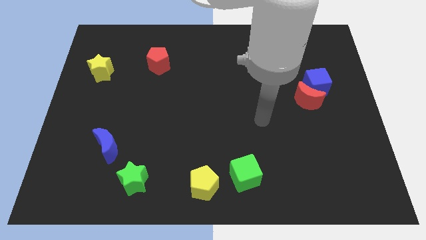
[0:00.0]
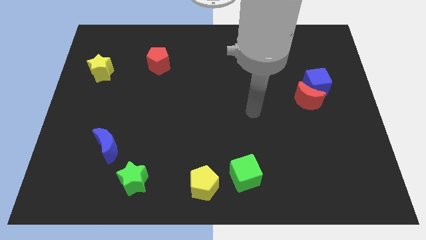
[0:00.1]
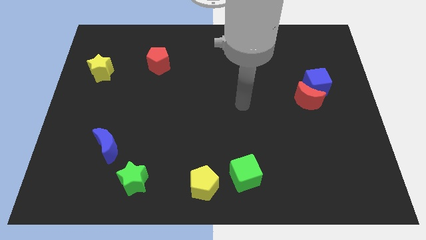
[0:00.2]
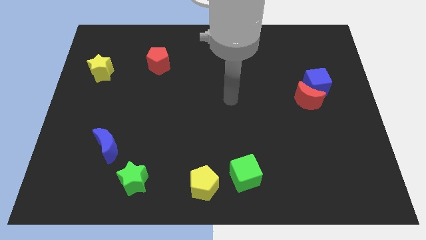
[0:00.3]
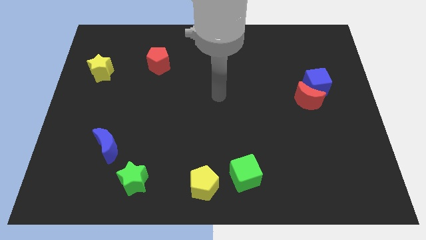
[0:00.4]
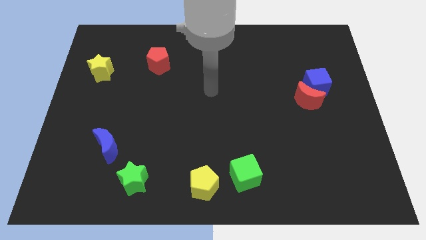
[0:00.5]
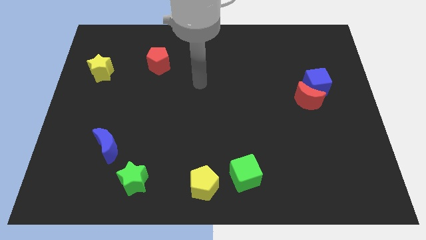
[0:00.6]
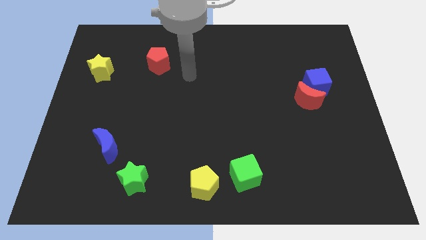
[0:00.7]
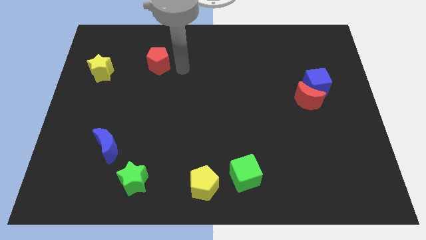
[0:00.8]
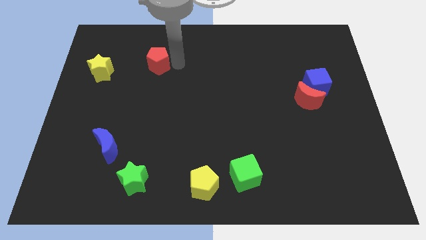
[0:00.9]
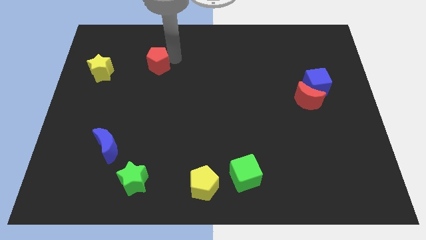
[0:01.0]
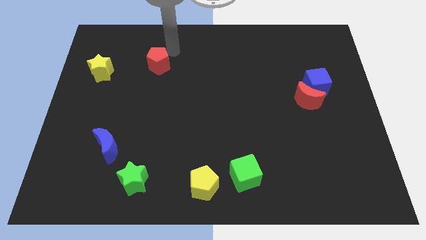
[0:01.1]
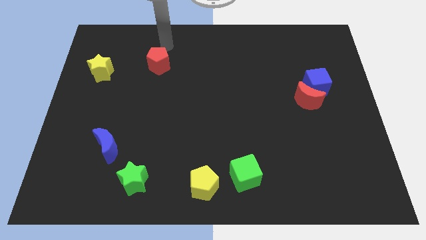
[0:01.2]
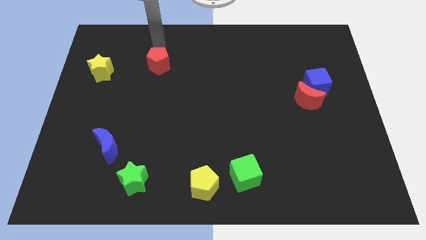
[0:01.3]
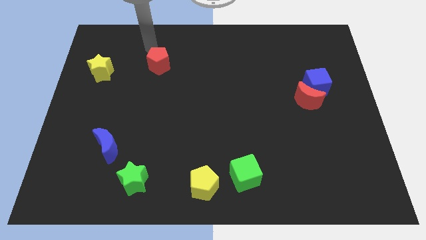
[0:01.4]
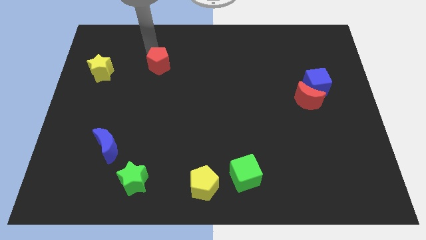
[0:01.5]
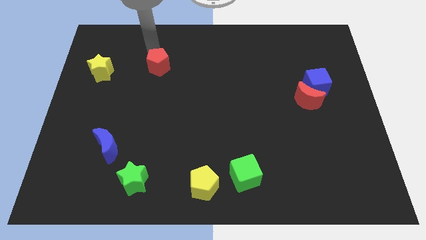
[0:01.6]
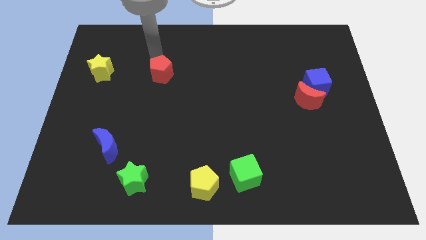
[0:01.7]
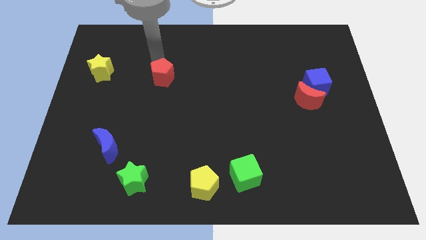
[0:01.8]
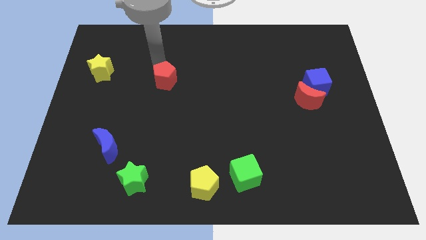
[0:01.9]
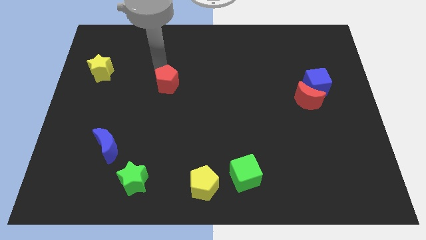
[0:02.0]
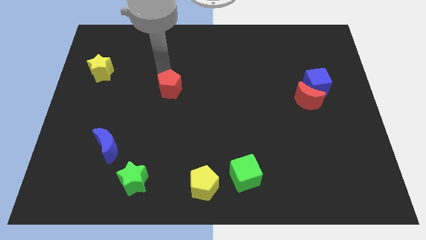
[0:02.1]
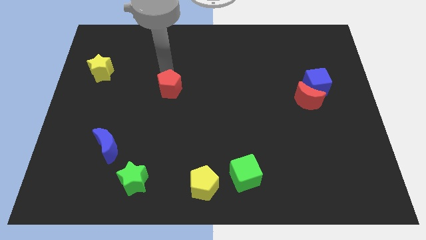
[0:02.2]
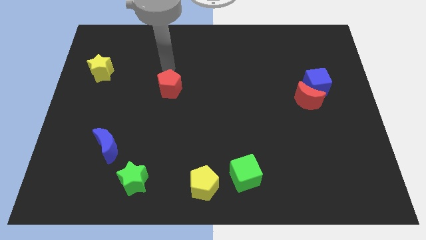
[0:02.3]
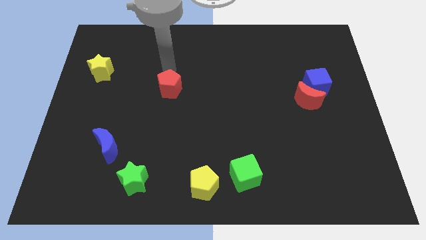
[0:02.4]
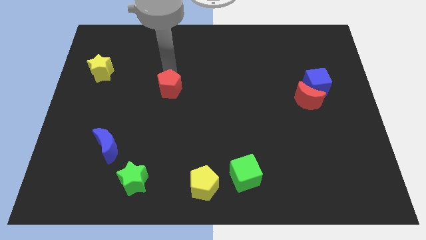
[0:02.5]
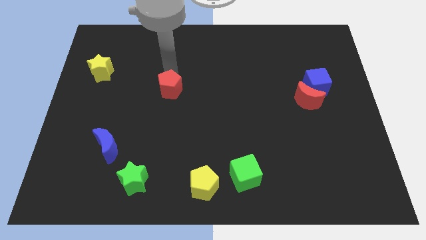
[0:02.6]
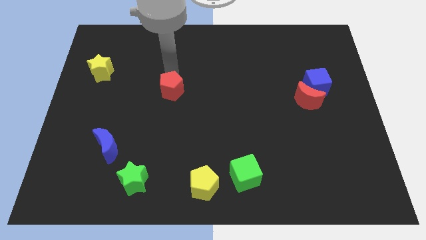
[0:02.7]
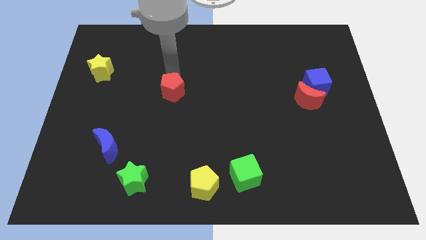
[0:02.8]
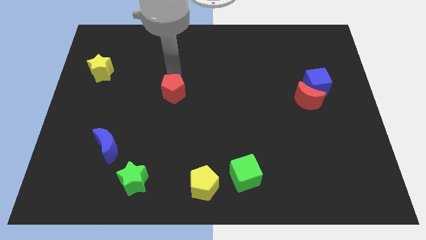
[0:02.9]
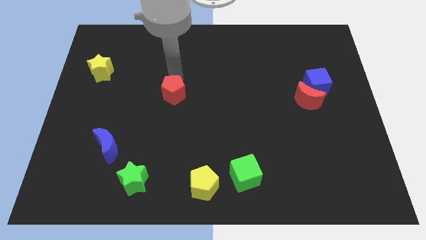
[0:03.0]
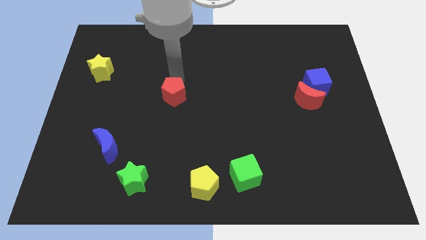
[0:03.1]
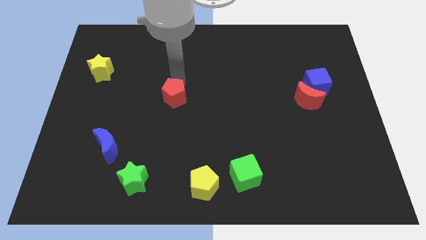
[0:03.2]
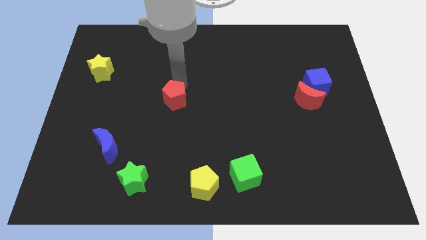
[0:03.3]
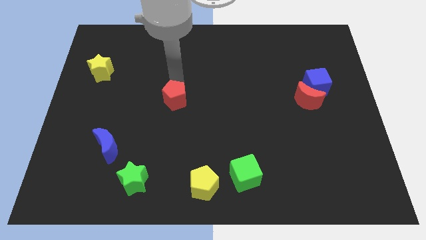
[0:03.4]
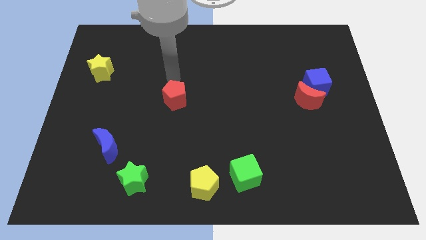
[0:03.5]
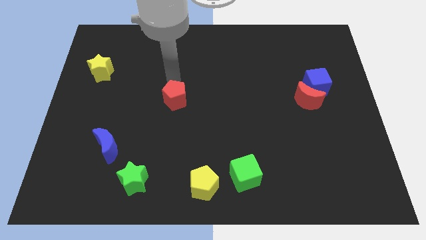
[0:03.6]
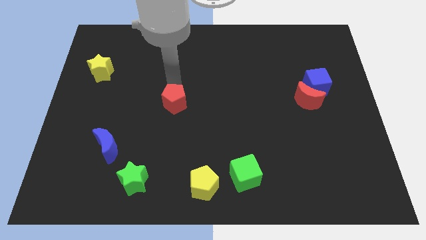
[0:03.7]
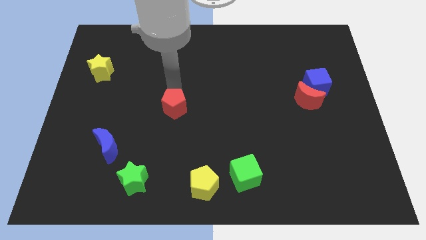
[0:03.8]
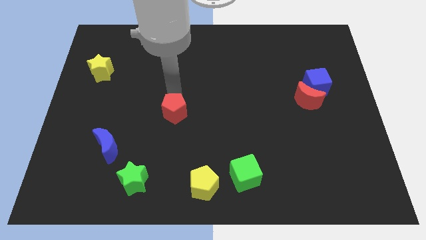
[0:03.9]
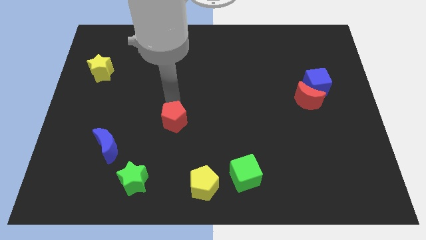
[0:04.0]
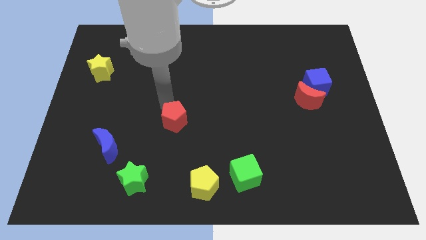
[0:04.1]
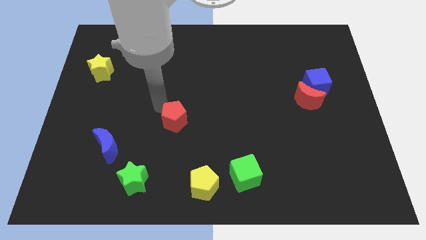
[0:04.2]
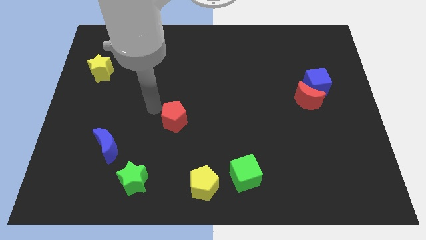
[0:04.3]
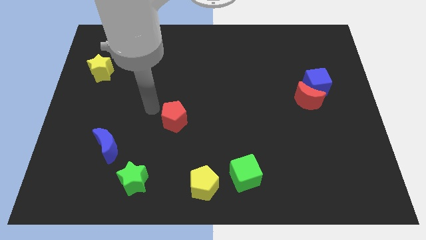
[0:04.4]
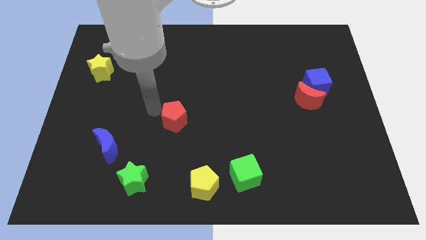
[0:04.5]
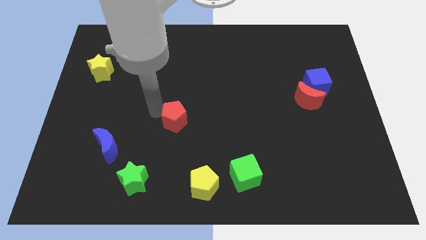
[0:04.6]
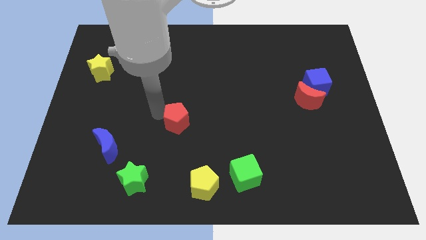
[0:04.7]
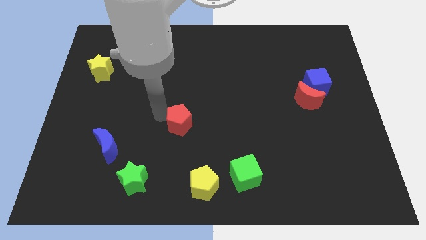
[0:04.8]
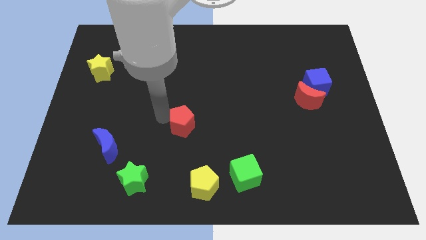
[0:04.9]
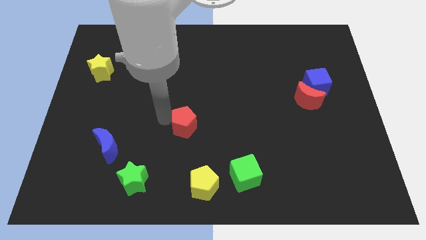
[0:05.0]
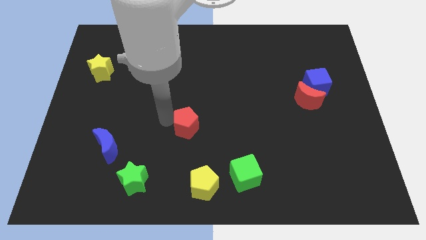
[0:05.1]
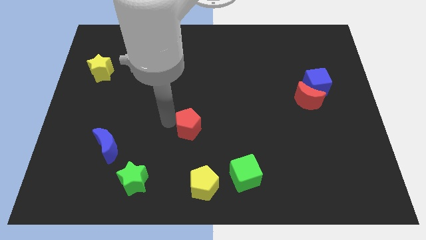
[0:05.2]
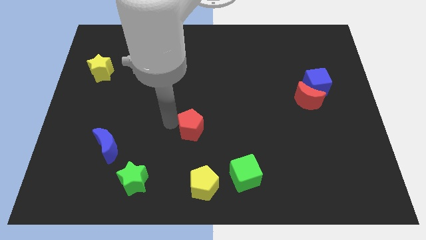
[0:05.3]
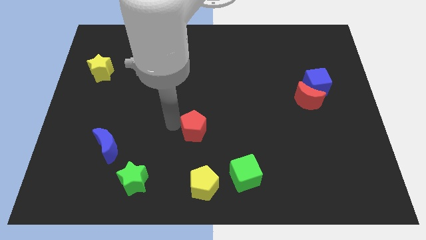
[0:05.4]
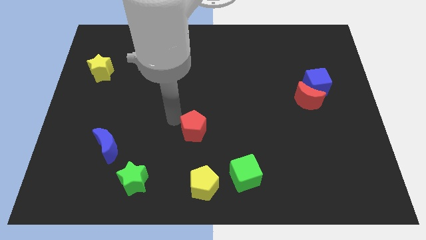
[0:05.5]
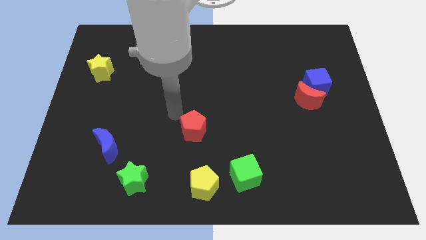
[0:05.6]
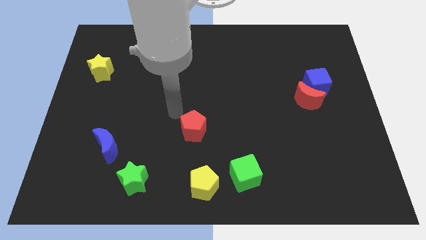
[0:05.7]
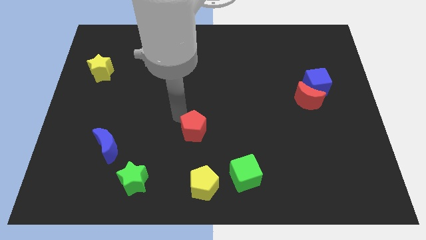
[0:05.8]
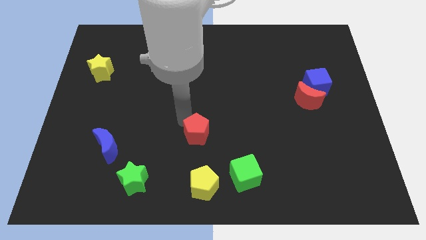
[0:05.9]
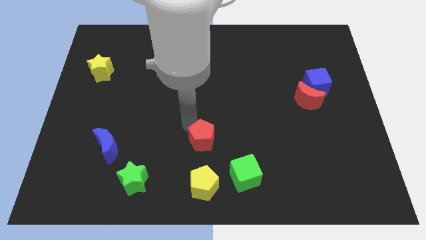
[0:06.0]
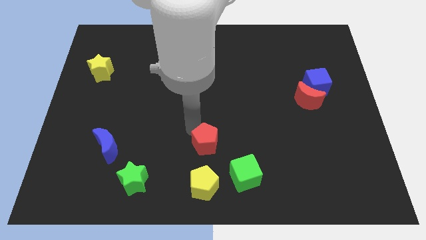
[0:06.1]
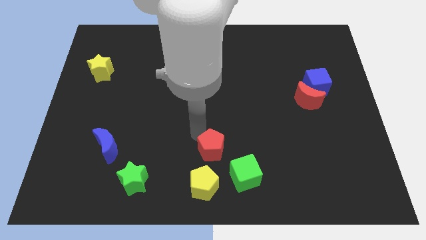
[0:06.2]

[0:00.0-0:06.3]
move the red pentagon to the top right side of the yellow pentagon

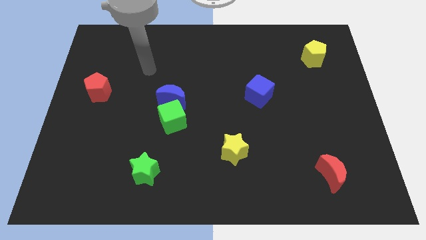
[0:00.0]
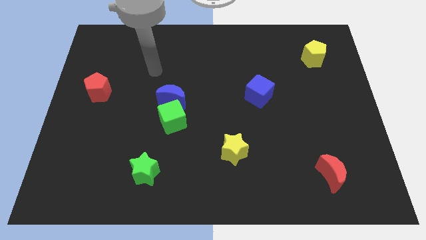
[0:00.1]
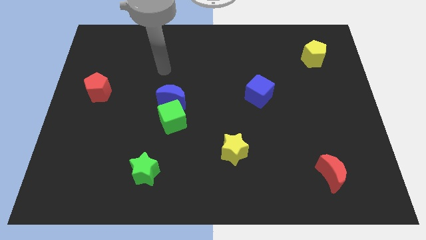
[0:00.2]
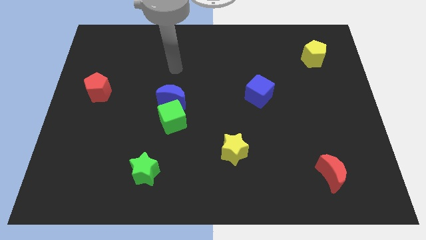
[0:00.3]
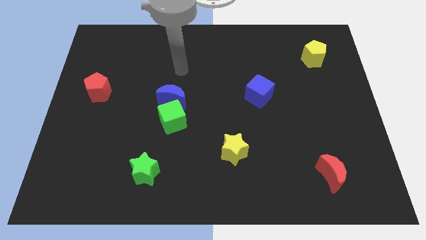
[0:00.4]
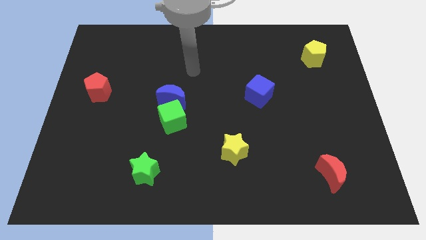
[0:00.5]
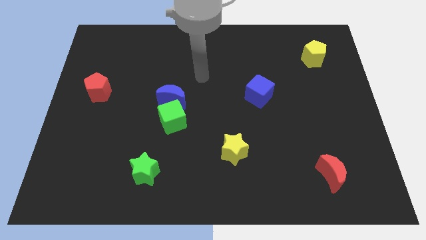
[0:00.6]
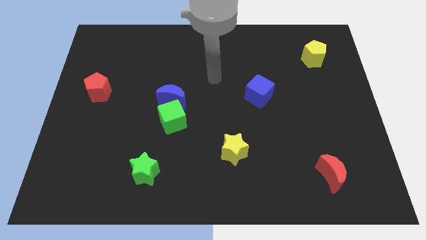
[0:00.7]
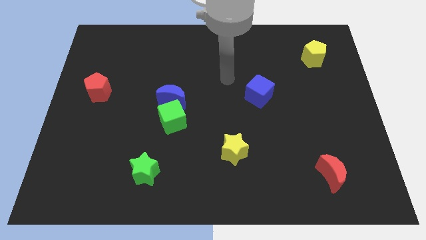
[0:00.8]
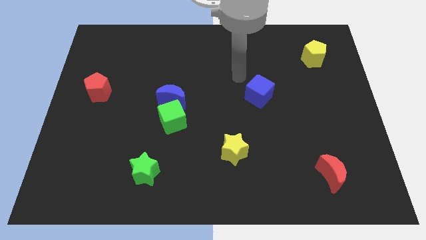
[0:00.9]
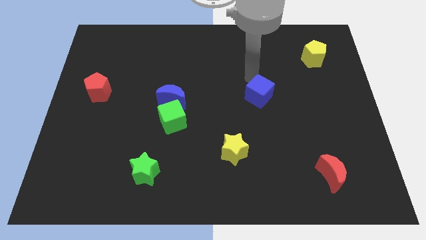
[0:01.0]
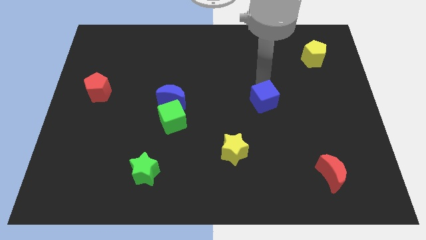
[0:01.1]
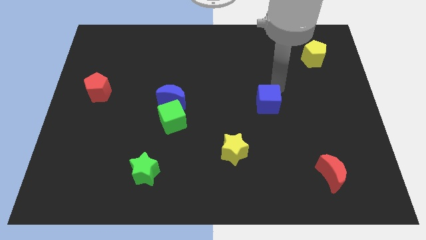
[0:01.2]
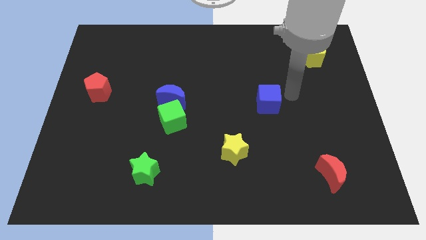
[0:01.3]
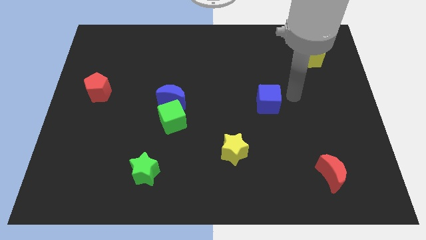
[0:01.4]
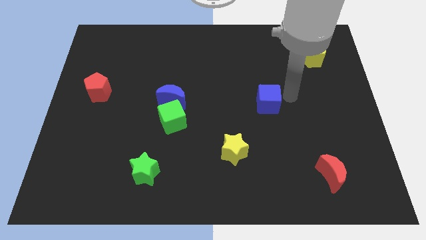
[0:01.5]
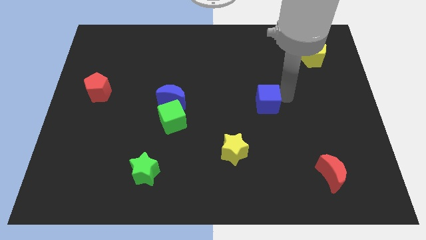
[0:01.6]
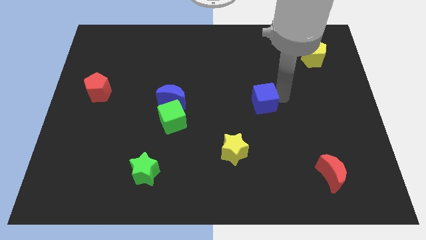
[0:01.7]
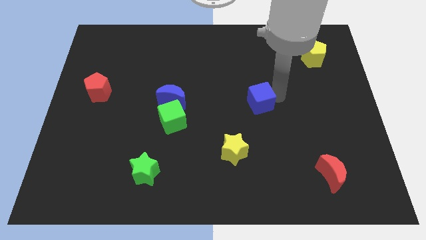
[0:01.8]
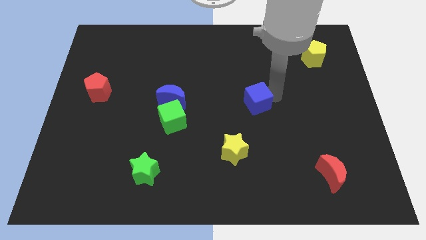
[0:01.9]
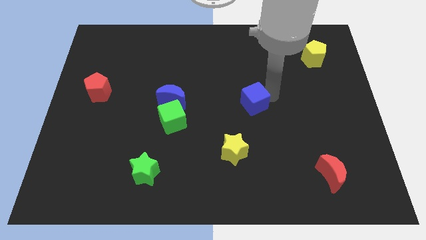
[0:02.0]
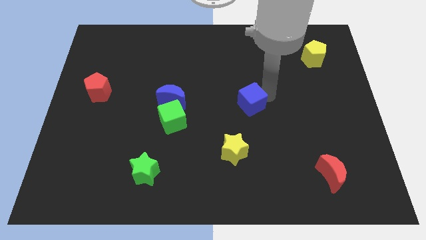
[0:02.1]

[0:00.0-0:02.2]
slide the blue cube to the top side of the yellow star
